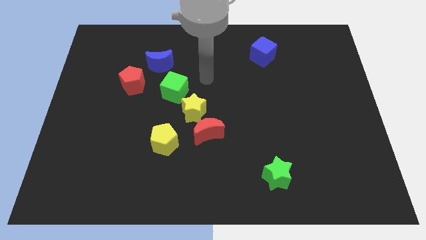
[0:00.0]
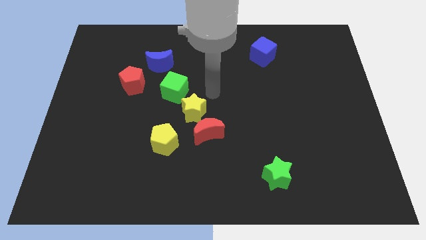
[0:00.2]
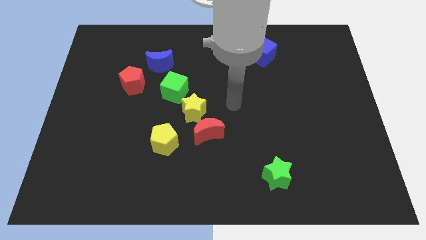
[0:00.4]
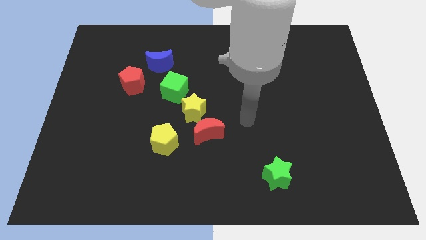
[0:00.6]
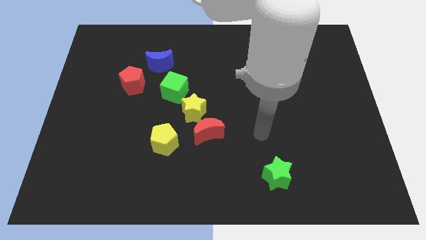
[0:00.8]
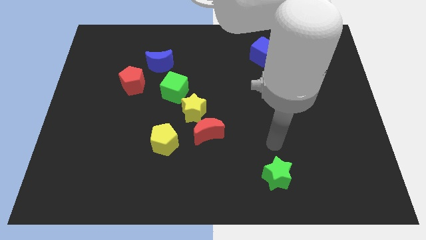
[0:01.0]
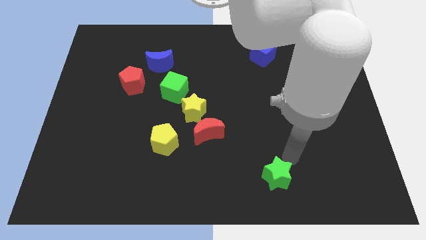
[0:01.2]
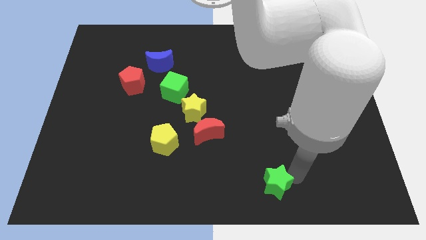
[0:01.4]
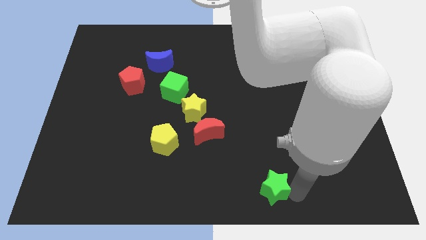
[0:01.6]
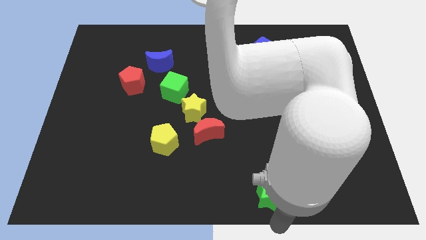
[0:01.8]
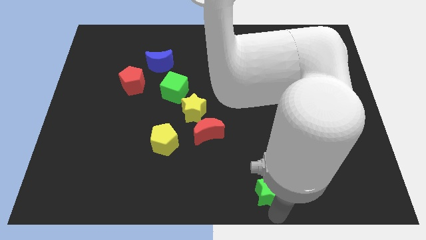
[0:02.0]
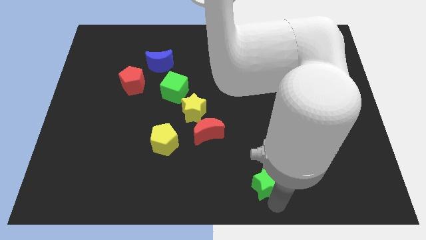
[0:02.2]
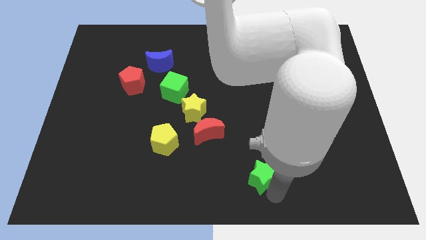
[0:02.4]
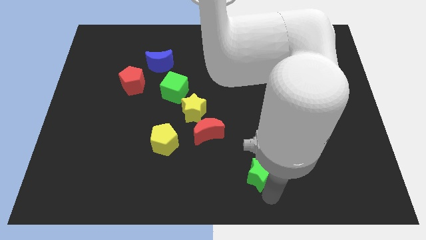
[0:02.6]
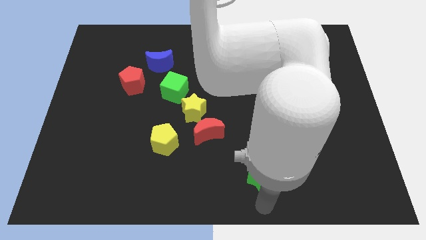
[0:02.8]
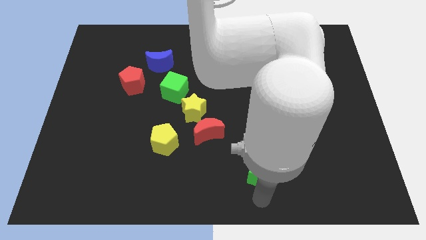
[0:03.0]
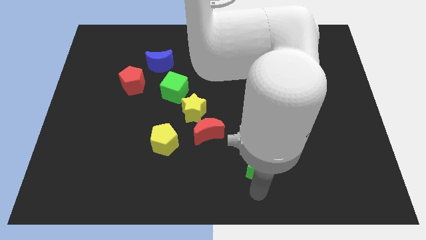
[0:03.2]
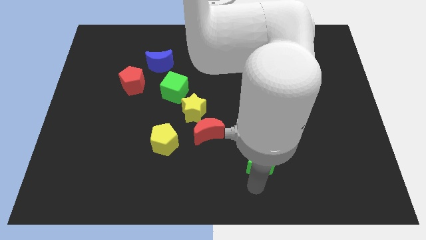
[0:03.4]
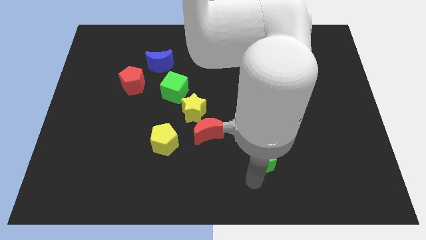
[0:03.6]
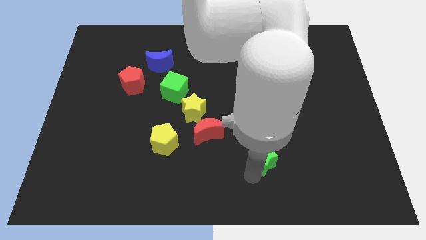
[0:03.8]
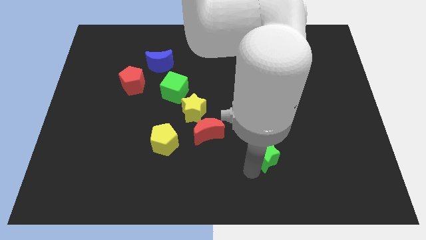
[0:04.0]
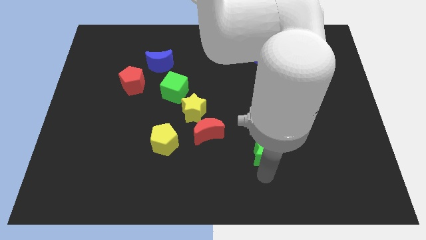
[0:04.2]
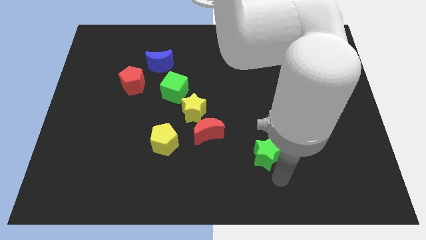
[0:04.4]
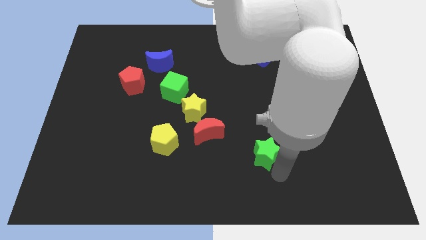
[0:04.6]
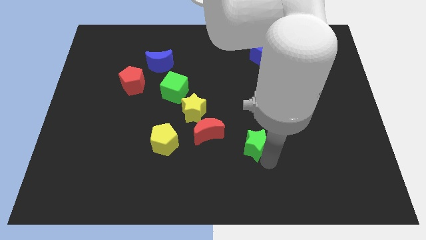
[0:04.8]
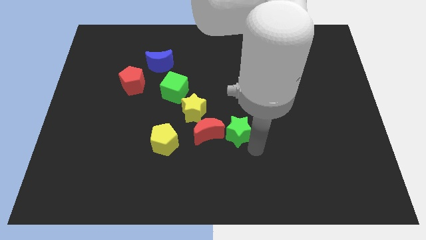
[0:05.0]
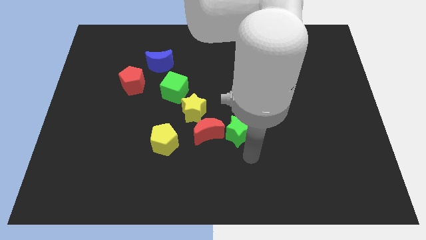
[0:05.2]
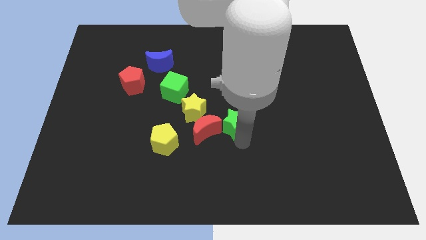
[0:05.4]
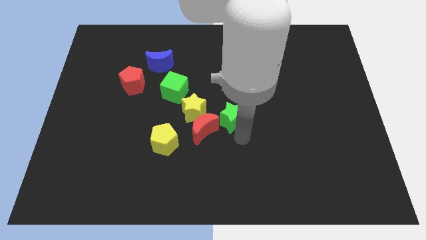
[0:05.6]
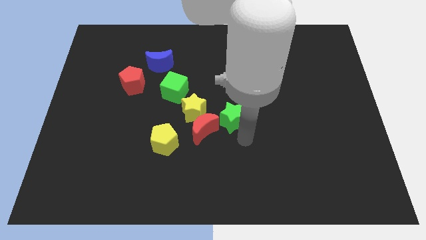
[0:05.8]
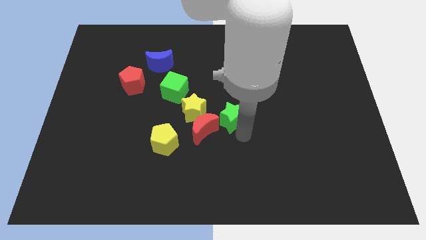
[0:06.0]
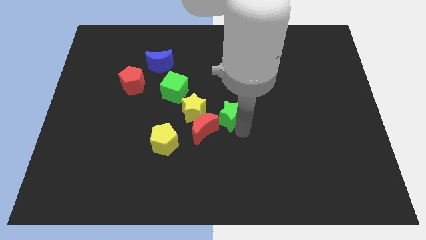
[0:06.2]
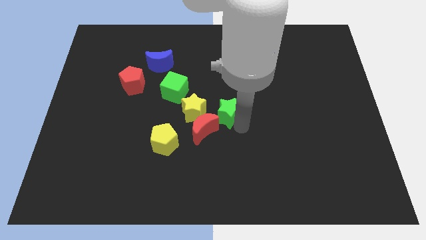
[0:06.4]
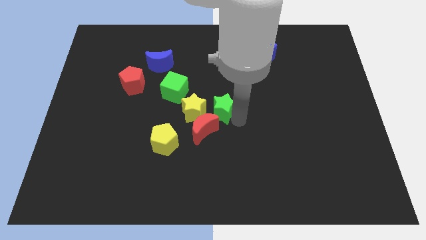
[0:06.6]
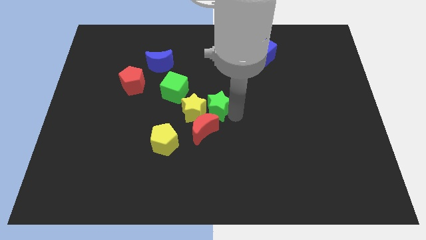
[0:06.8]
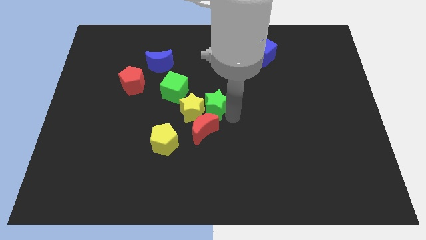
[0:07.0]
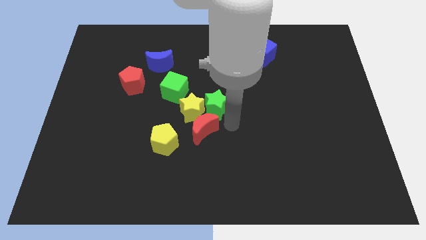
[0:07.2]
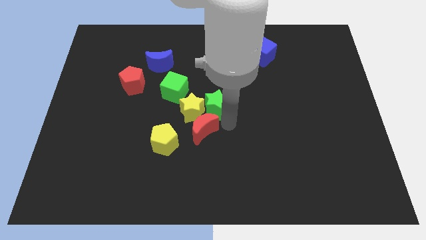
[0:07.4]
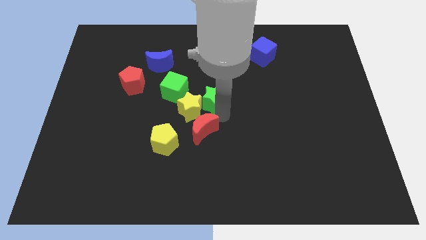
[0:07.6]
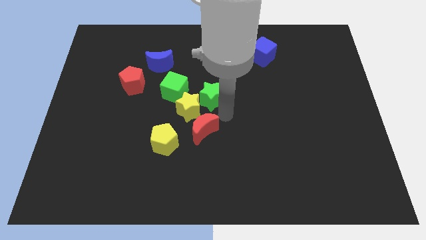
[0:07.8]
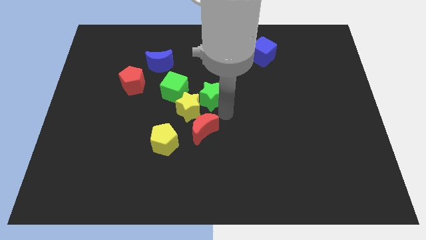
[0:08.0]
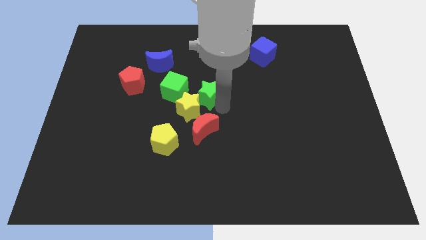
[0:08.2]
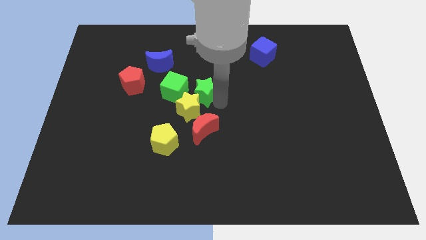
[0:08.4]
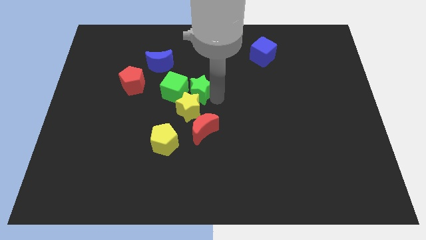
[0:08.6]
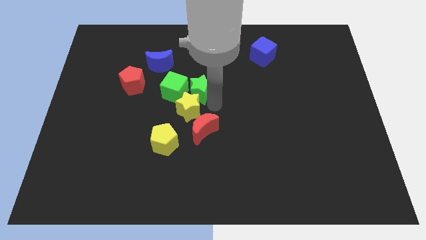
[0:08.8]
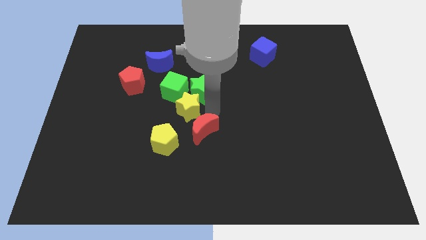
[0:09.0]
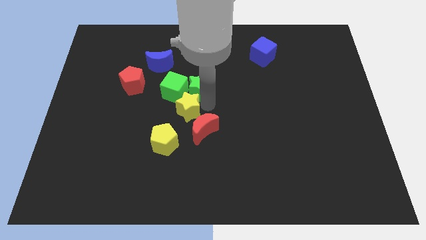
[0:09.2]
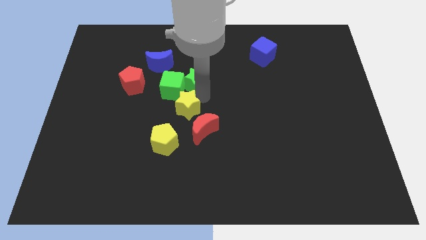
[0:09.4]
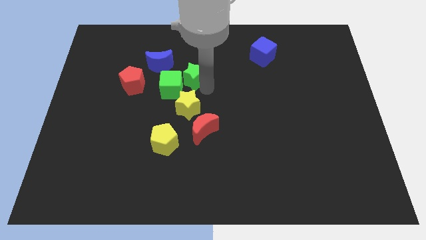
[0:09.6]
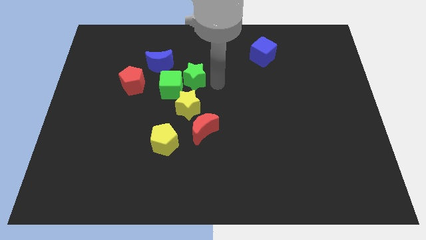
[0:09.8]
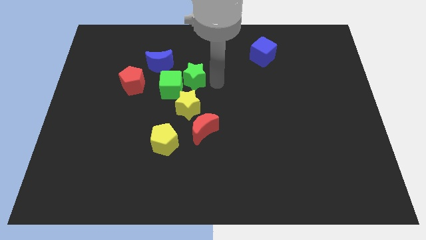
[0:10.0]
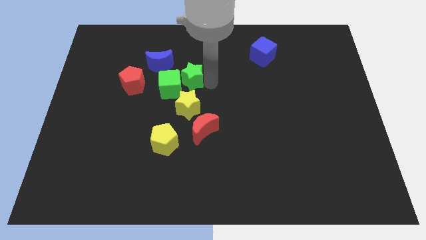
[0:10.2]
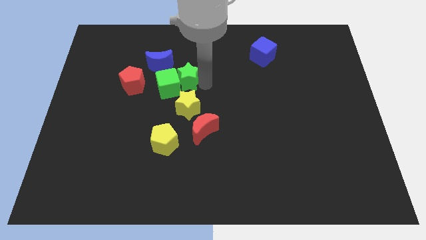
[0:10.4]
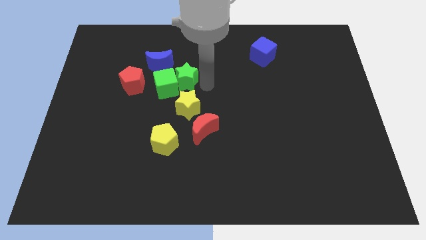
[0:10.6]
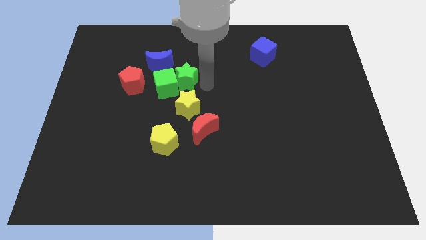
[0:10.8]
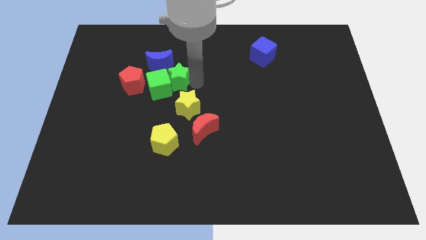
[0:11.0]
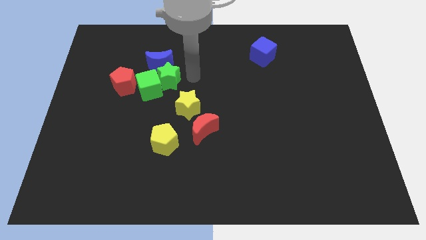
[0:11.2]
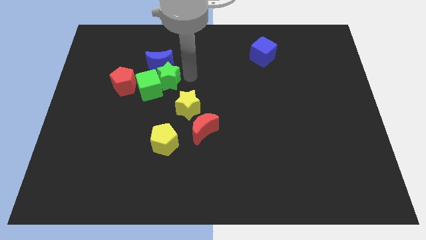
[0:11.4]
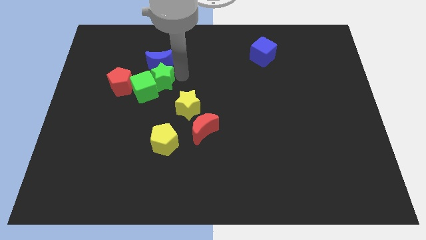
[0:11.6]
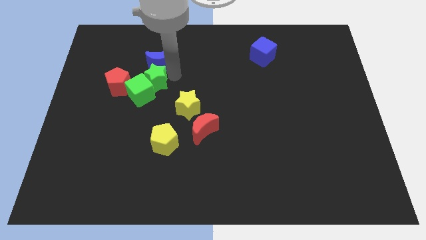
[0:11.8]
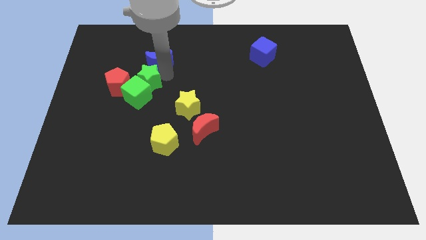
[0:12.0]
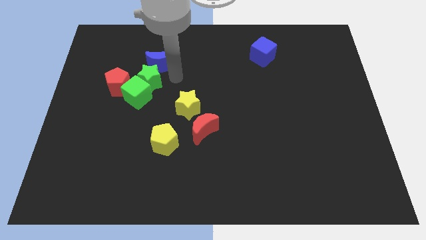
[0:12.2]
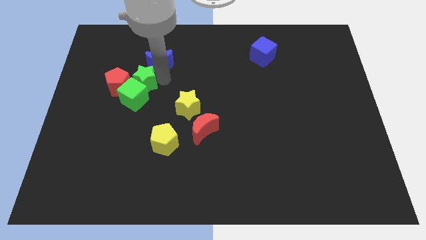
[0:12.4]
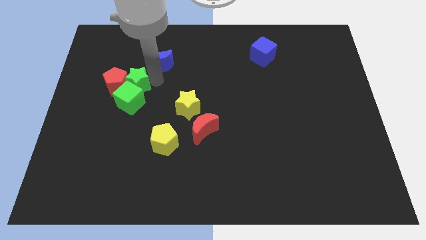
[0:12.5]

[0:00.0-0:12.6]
push the green star to the red pentagon

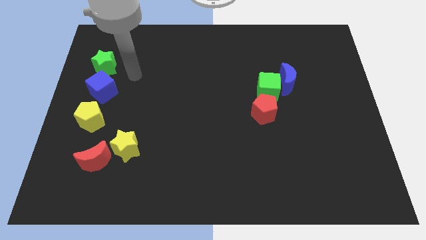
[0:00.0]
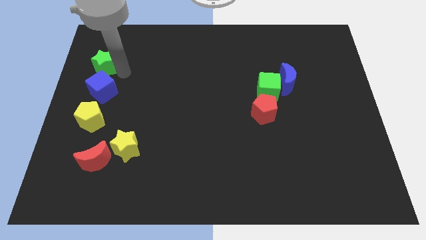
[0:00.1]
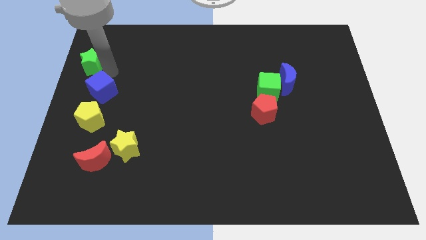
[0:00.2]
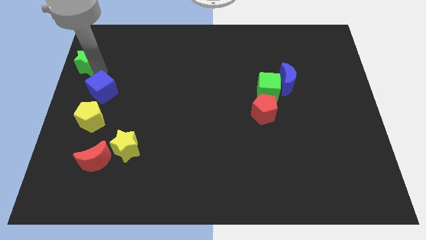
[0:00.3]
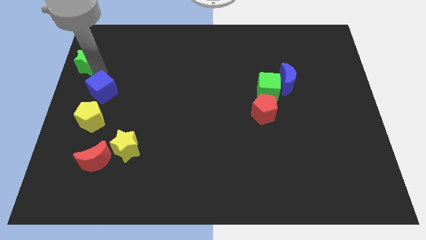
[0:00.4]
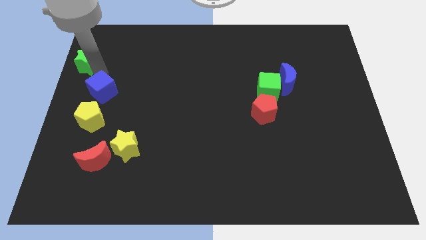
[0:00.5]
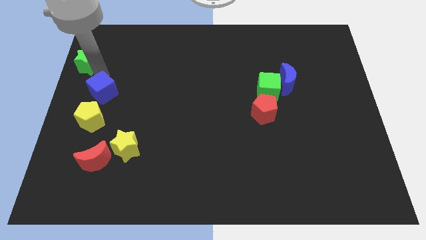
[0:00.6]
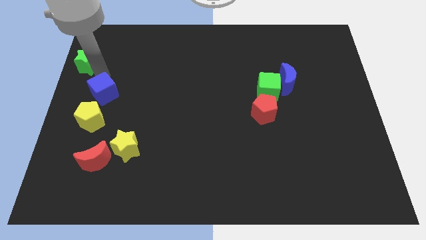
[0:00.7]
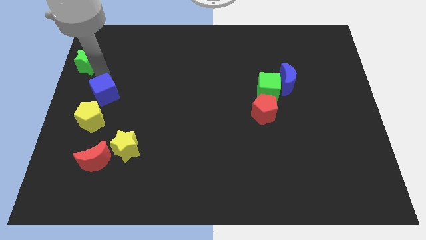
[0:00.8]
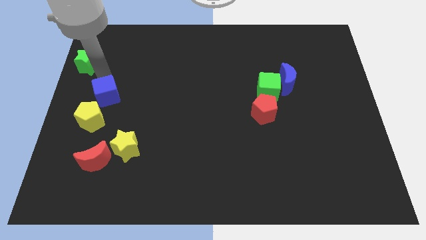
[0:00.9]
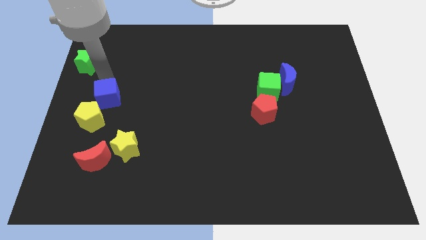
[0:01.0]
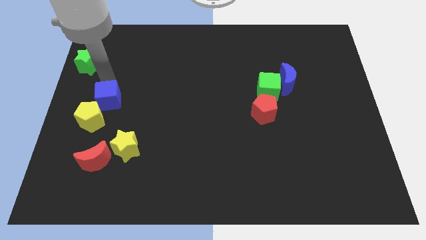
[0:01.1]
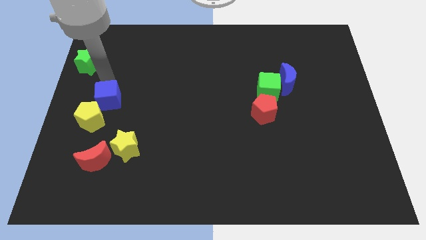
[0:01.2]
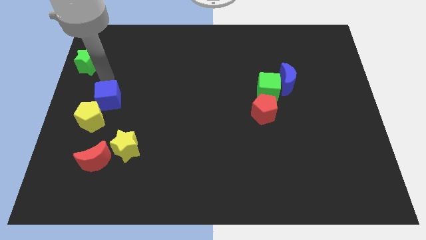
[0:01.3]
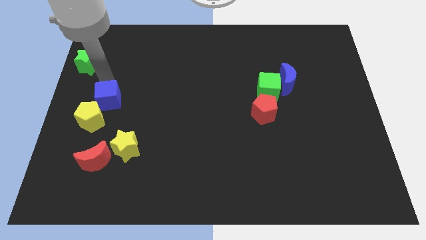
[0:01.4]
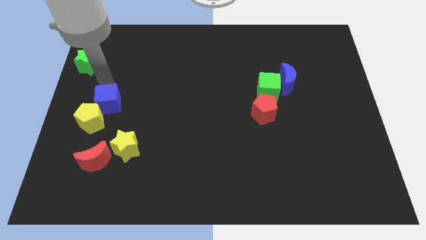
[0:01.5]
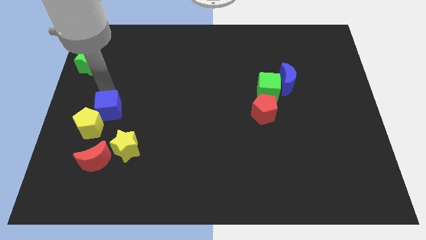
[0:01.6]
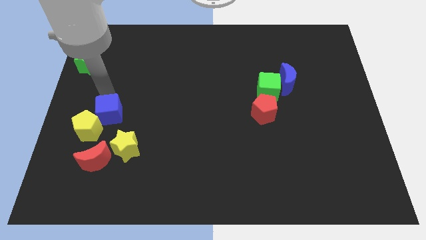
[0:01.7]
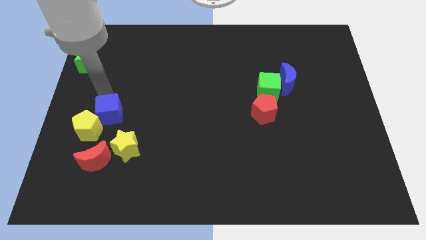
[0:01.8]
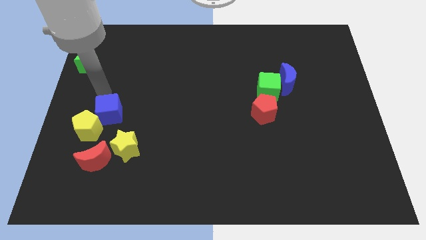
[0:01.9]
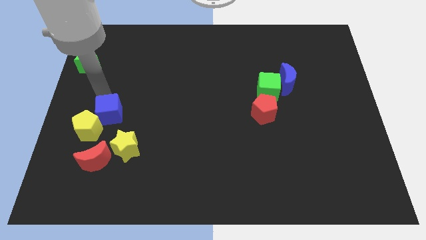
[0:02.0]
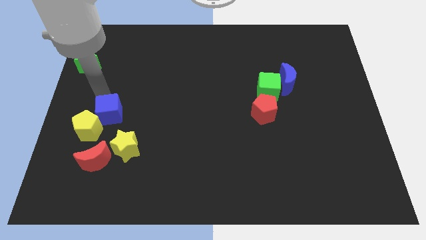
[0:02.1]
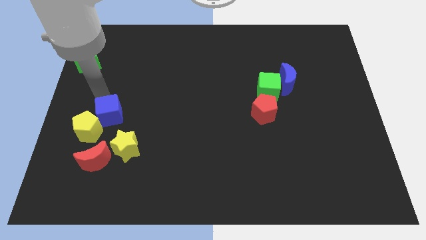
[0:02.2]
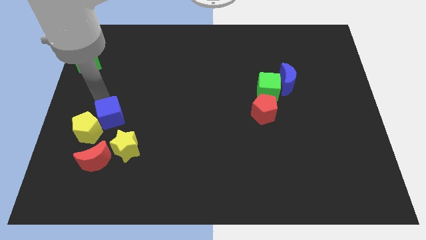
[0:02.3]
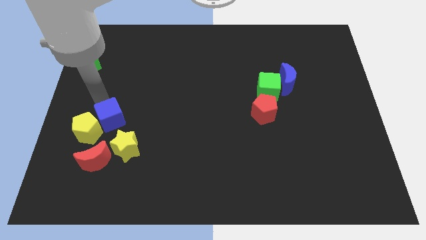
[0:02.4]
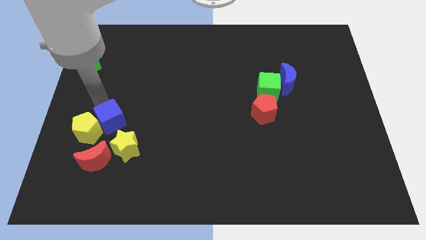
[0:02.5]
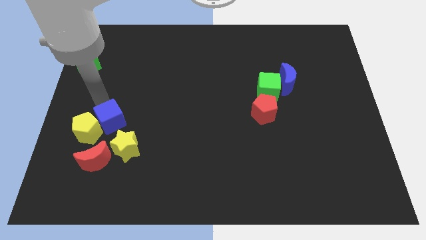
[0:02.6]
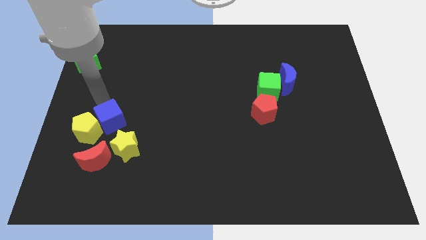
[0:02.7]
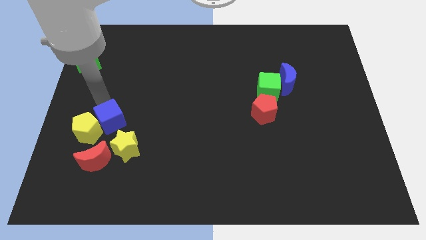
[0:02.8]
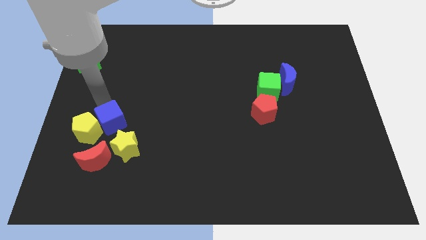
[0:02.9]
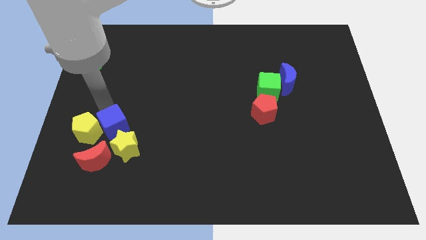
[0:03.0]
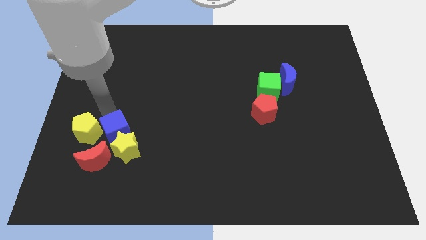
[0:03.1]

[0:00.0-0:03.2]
slide the blue cube next to the yellow star
